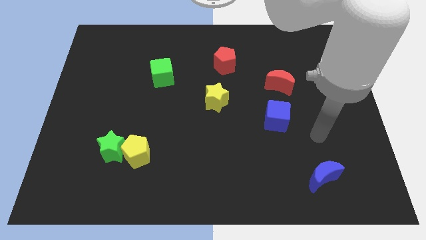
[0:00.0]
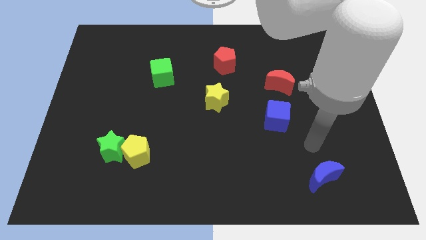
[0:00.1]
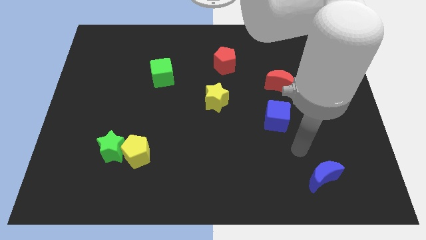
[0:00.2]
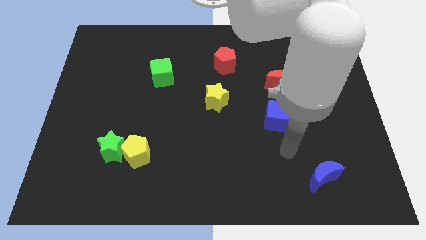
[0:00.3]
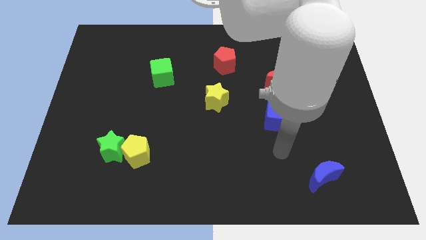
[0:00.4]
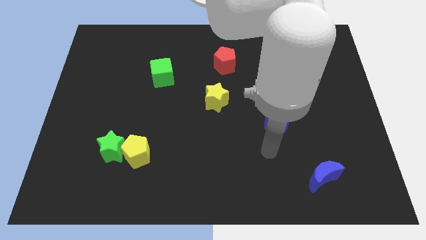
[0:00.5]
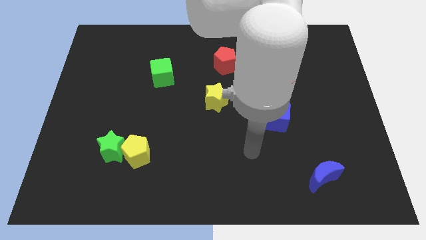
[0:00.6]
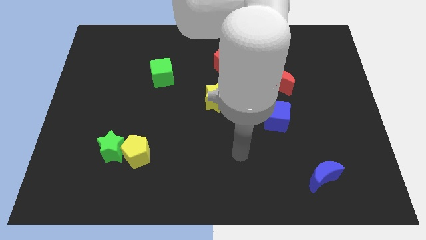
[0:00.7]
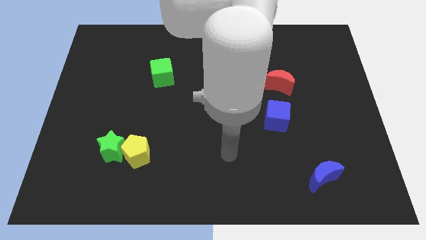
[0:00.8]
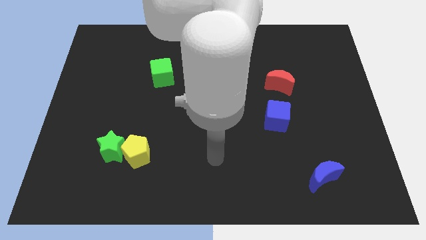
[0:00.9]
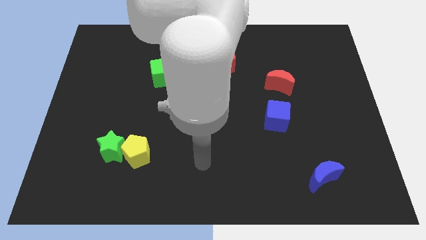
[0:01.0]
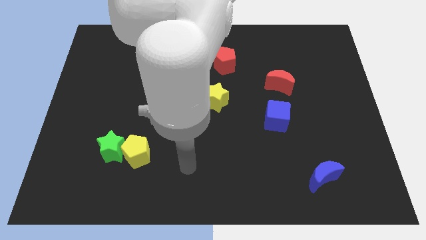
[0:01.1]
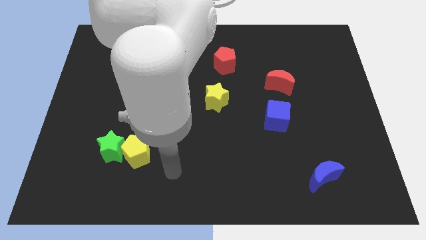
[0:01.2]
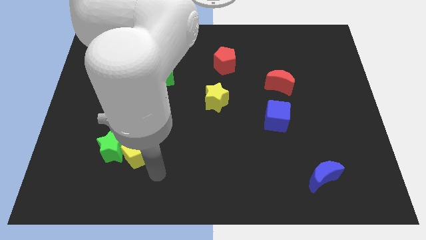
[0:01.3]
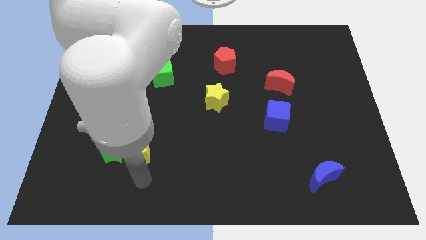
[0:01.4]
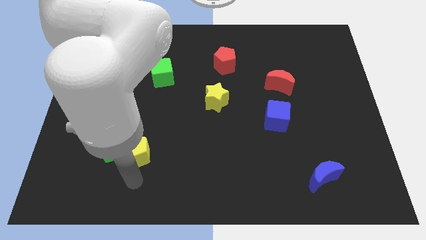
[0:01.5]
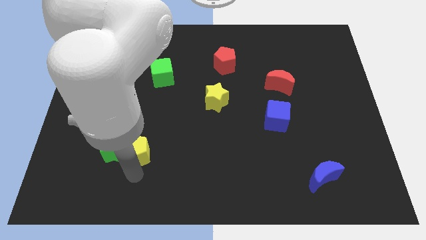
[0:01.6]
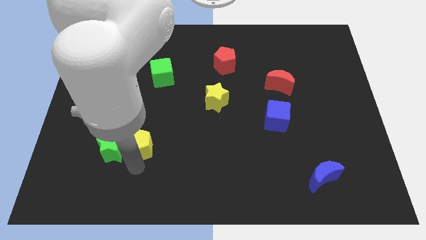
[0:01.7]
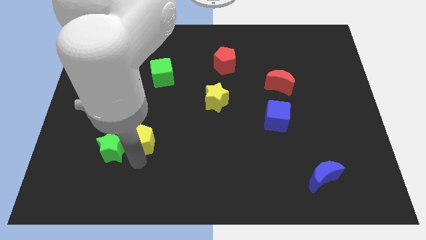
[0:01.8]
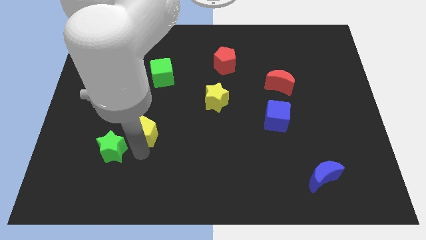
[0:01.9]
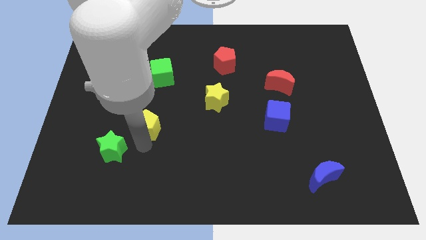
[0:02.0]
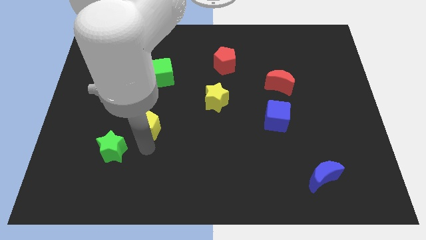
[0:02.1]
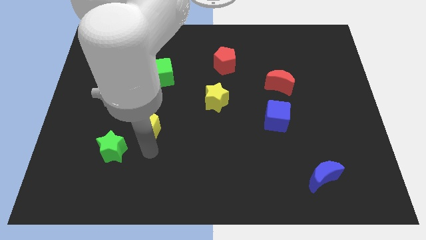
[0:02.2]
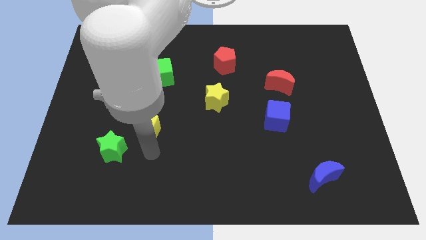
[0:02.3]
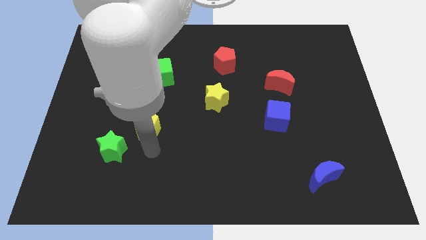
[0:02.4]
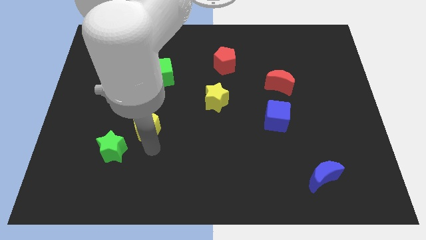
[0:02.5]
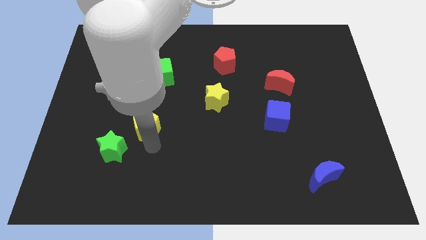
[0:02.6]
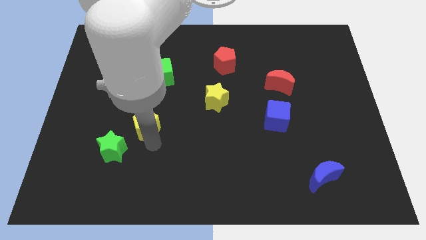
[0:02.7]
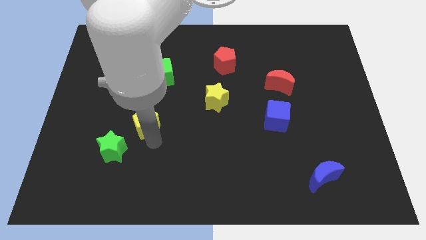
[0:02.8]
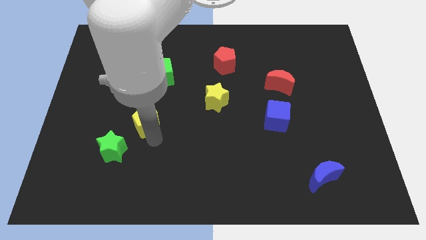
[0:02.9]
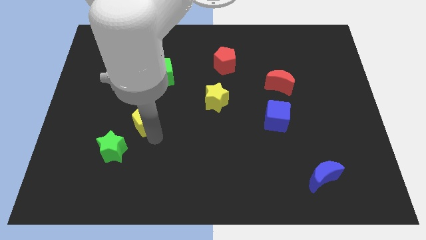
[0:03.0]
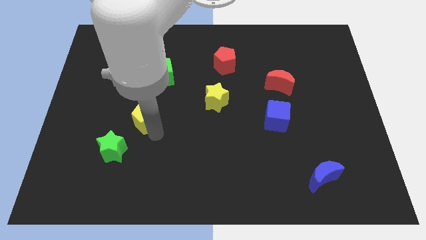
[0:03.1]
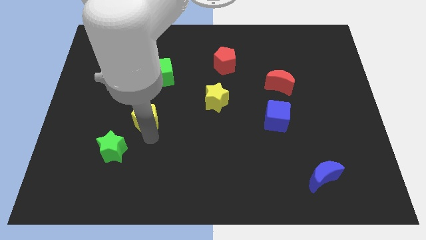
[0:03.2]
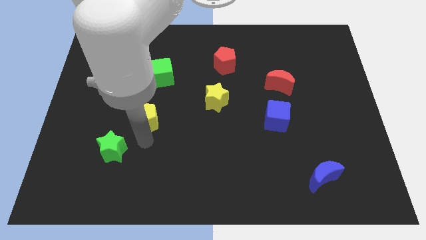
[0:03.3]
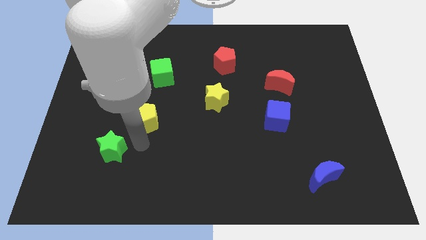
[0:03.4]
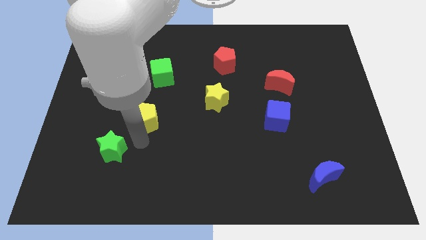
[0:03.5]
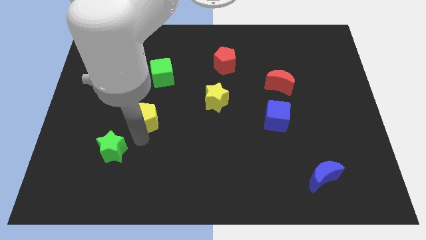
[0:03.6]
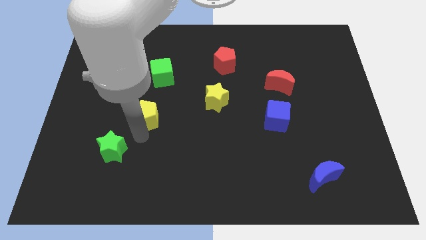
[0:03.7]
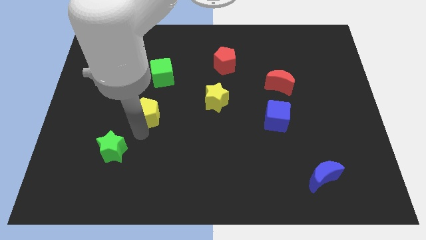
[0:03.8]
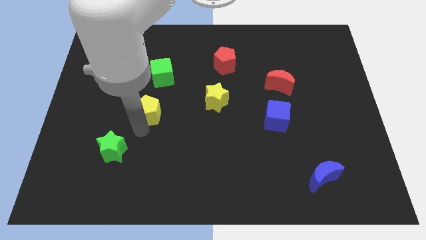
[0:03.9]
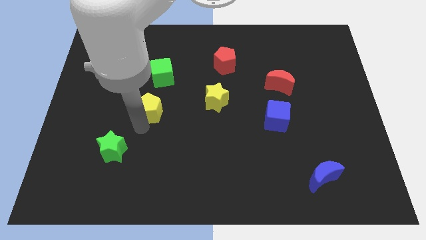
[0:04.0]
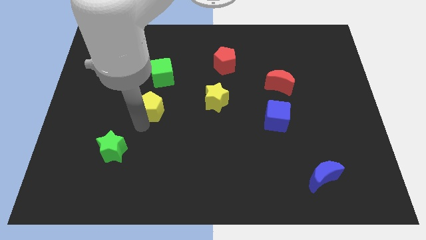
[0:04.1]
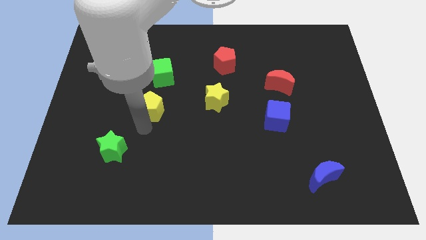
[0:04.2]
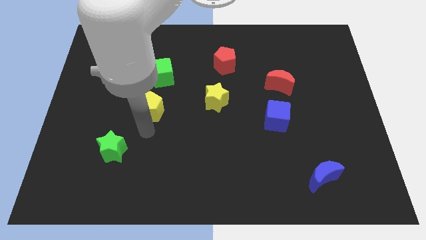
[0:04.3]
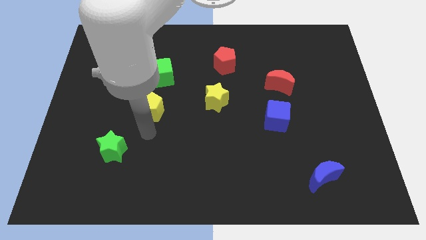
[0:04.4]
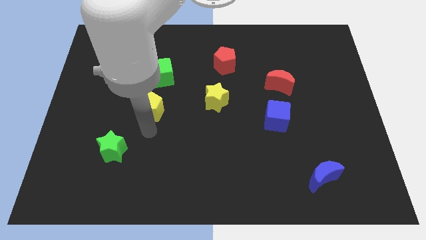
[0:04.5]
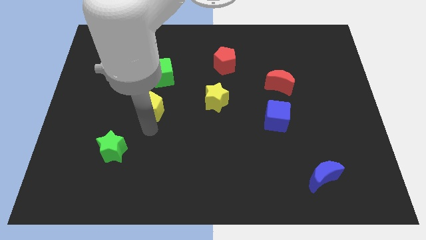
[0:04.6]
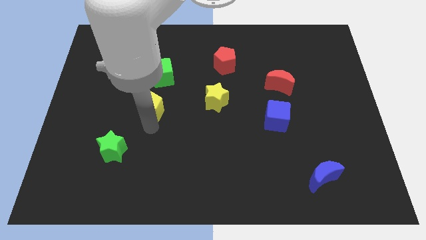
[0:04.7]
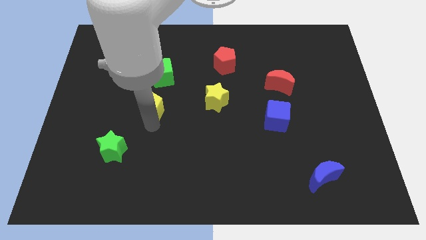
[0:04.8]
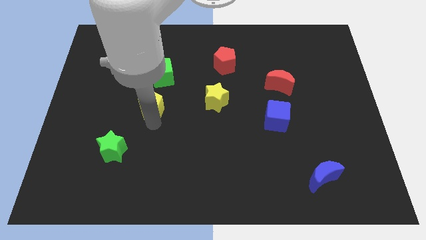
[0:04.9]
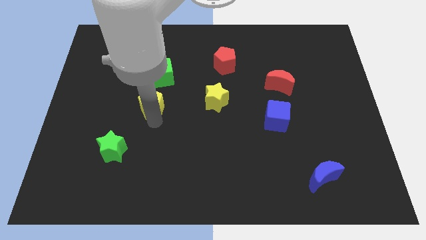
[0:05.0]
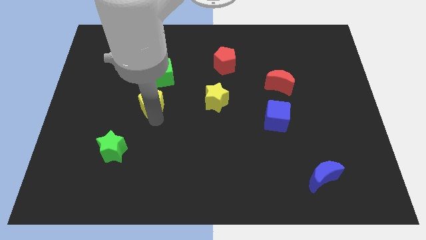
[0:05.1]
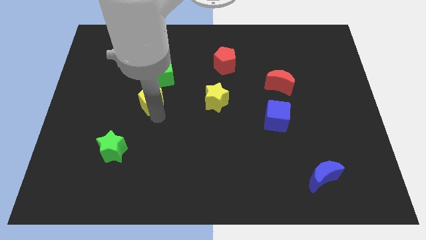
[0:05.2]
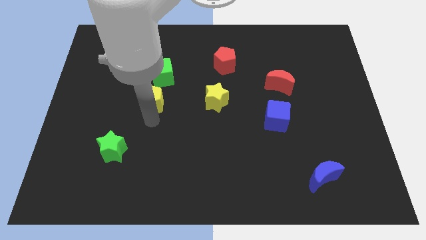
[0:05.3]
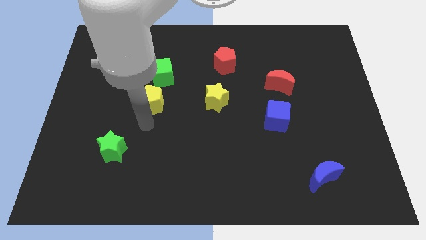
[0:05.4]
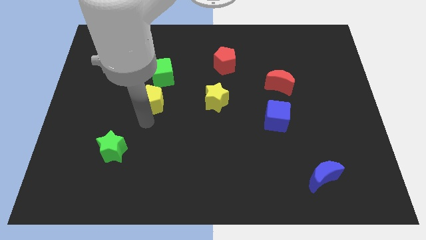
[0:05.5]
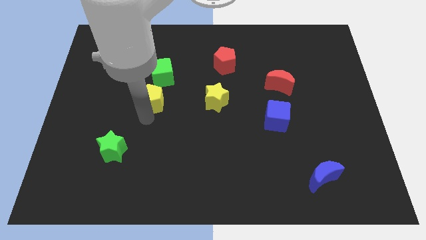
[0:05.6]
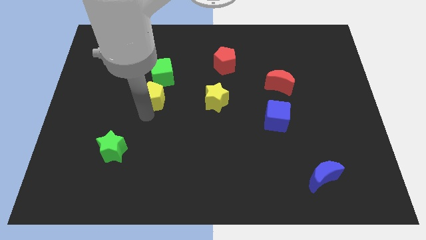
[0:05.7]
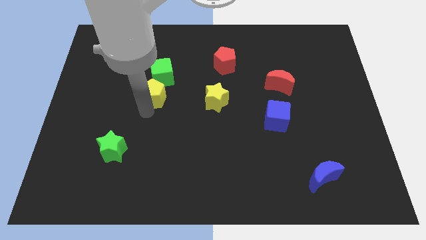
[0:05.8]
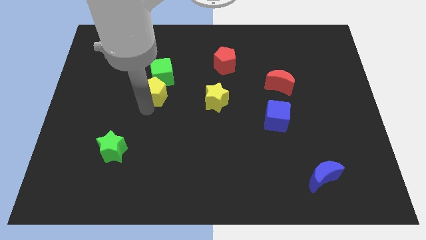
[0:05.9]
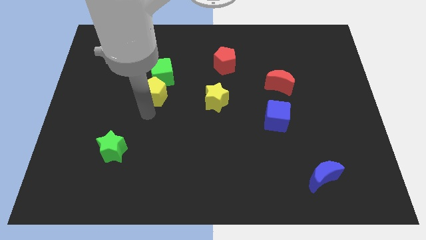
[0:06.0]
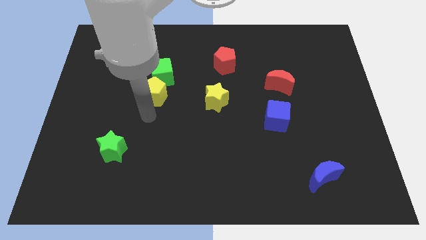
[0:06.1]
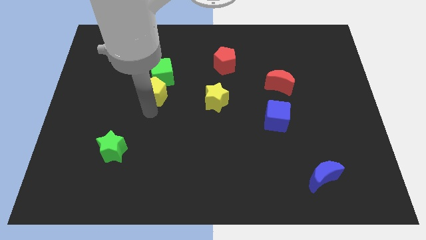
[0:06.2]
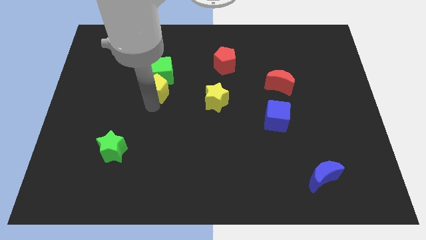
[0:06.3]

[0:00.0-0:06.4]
put the yellow pentagon to the green cube
